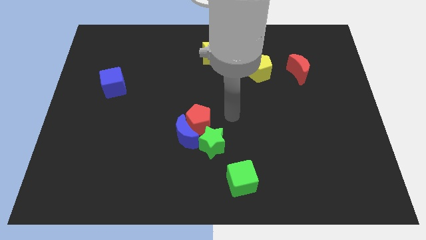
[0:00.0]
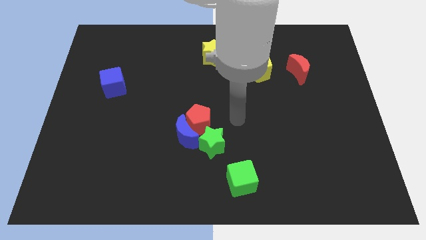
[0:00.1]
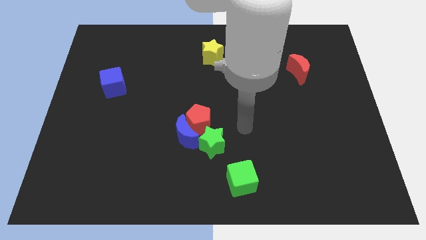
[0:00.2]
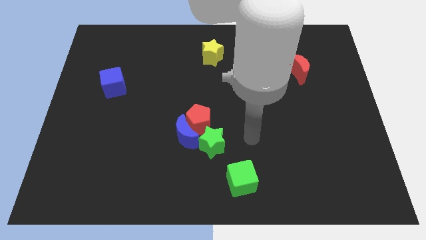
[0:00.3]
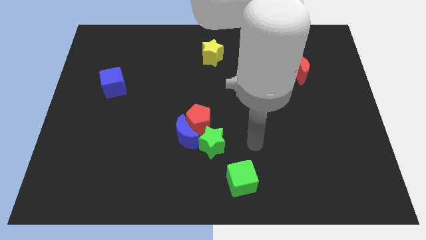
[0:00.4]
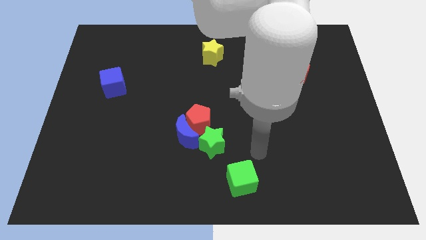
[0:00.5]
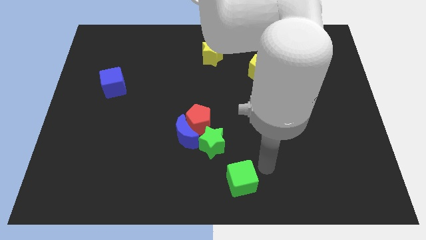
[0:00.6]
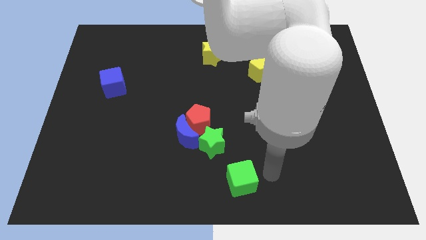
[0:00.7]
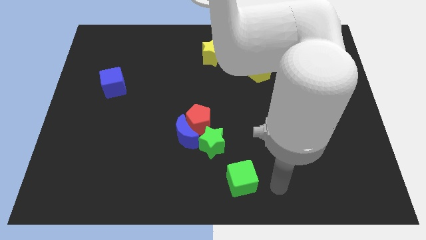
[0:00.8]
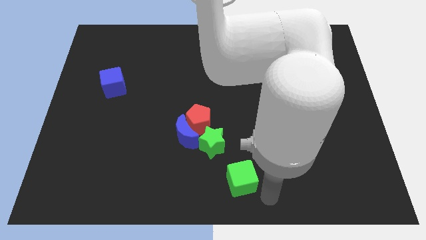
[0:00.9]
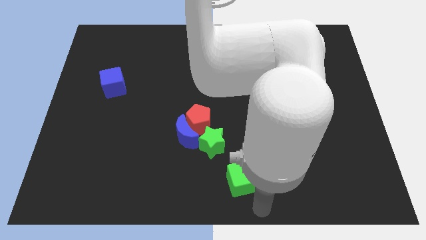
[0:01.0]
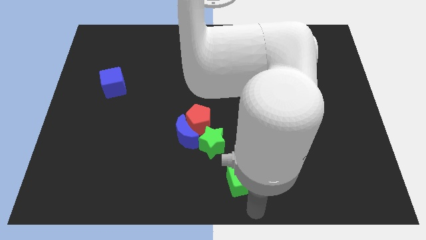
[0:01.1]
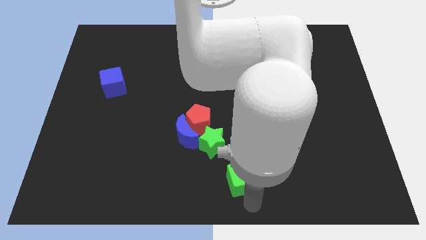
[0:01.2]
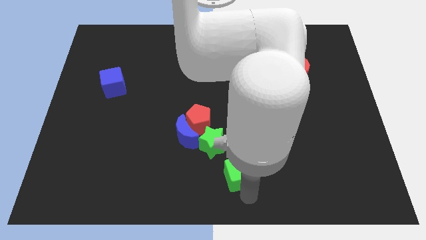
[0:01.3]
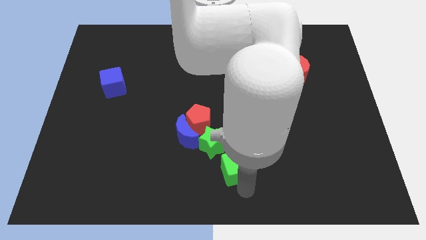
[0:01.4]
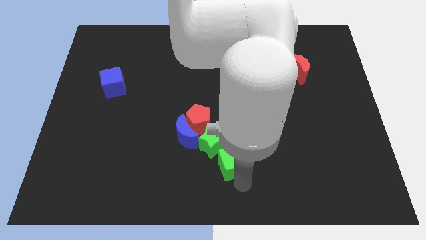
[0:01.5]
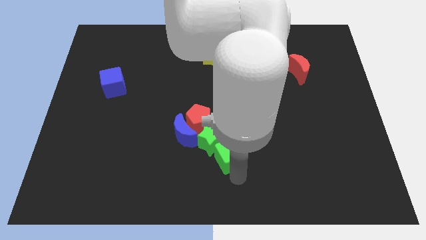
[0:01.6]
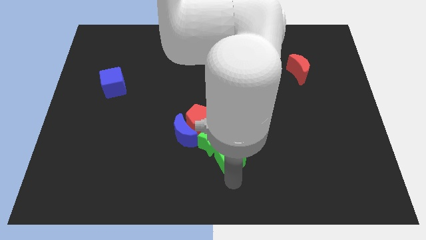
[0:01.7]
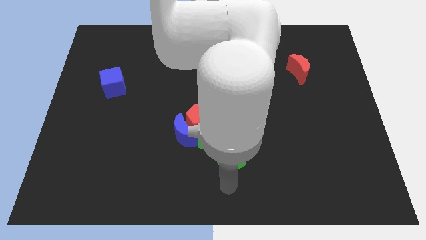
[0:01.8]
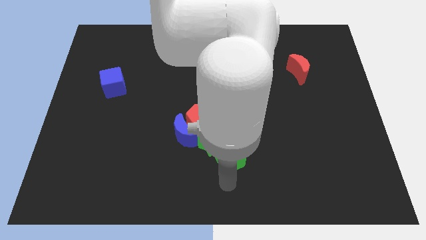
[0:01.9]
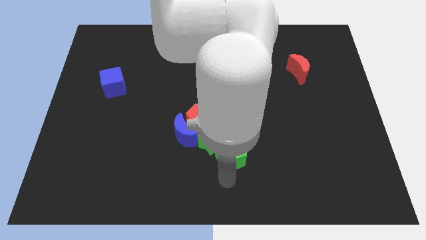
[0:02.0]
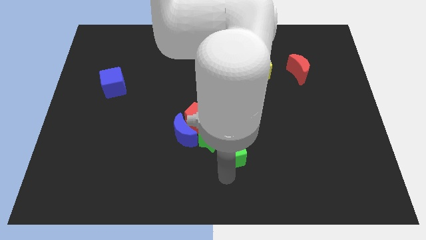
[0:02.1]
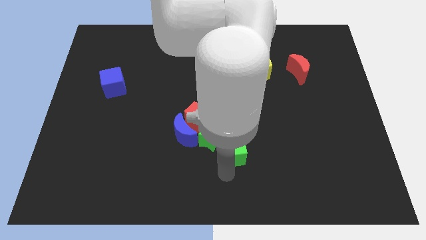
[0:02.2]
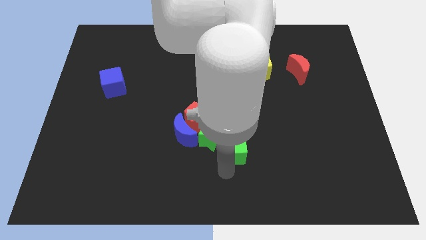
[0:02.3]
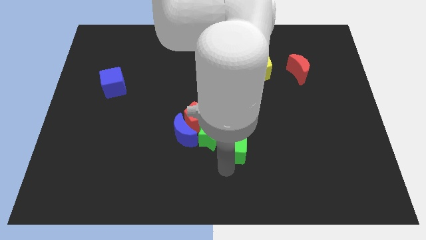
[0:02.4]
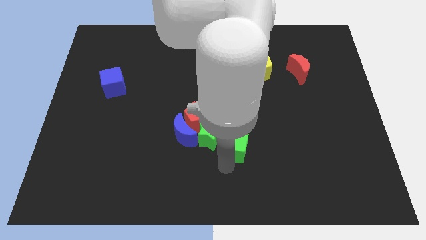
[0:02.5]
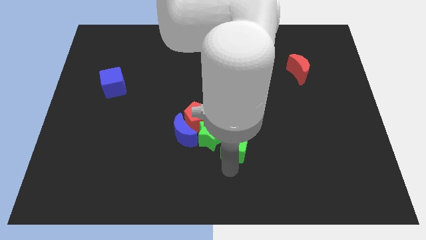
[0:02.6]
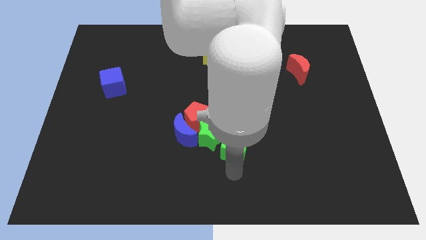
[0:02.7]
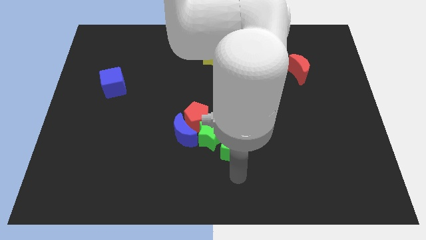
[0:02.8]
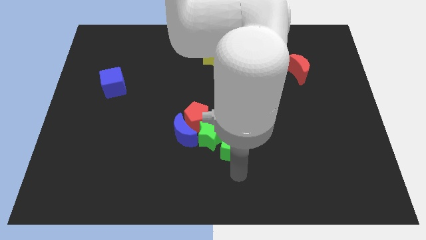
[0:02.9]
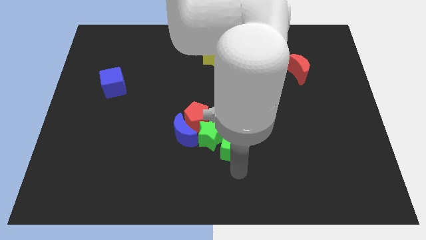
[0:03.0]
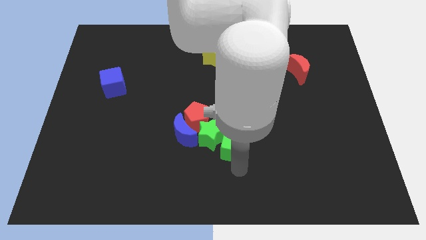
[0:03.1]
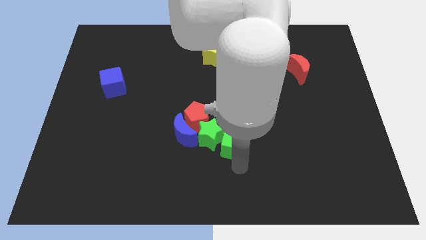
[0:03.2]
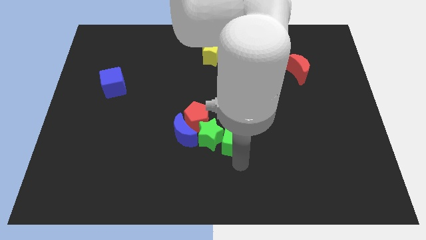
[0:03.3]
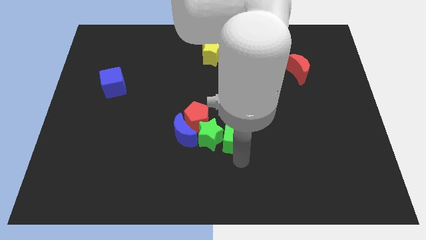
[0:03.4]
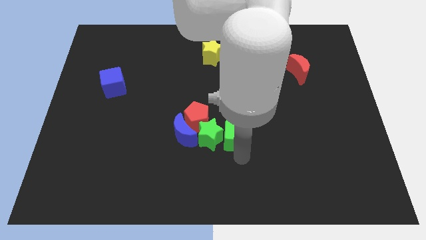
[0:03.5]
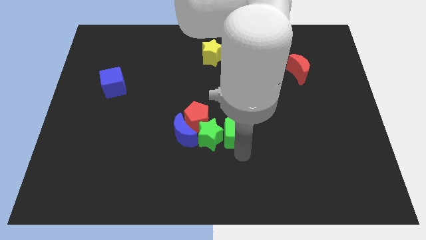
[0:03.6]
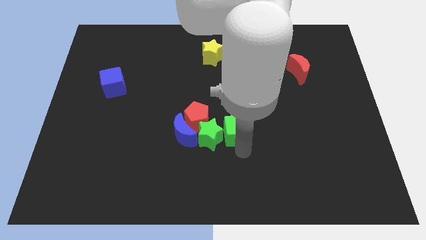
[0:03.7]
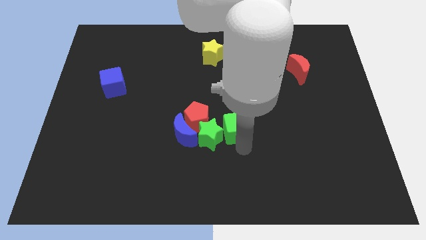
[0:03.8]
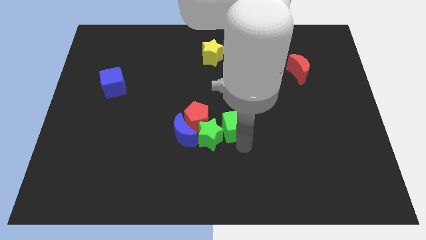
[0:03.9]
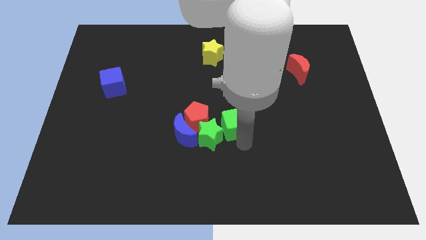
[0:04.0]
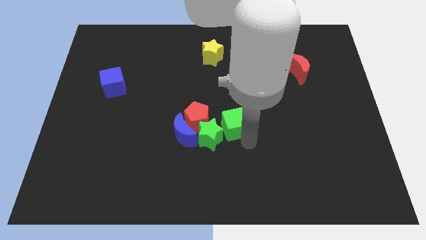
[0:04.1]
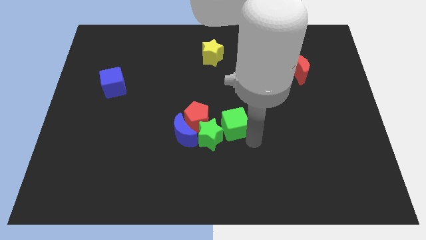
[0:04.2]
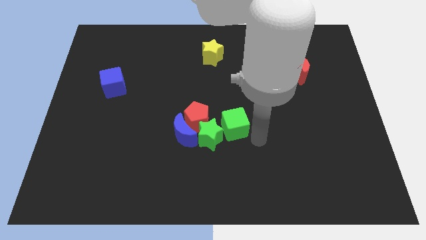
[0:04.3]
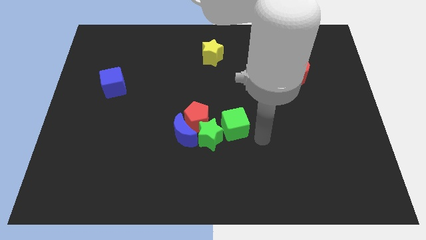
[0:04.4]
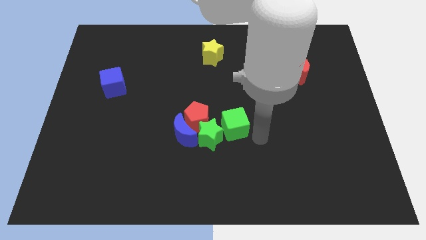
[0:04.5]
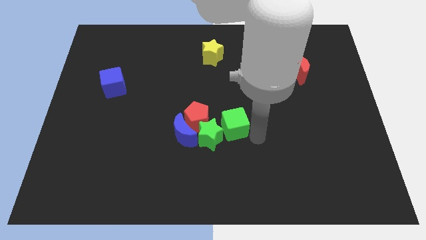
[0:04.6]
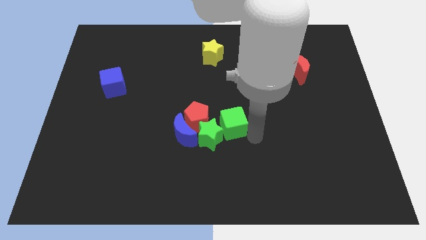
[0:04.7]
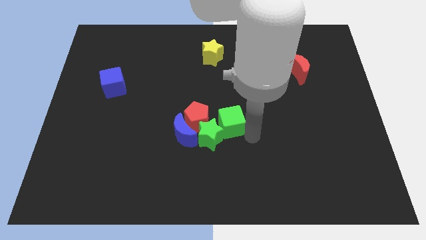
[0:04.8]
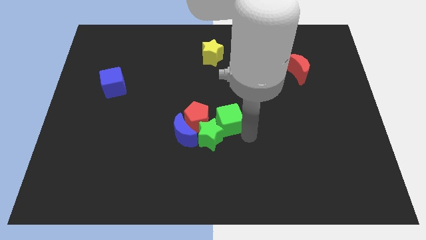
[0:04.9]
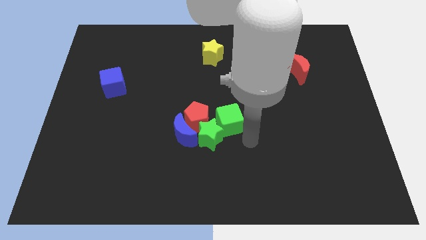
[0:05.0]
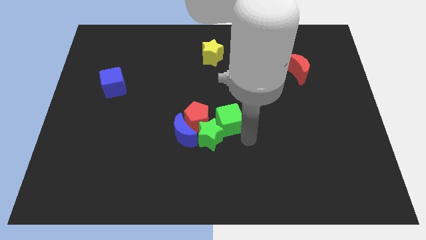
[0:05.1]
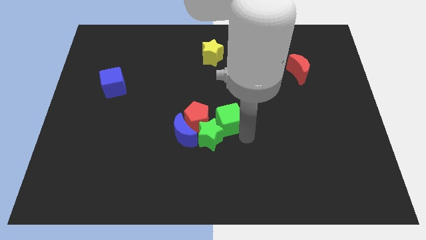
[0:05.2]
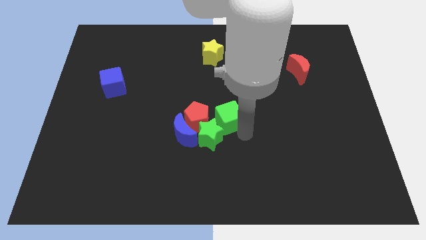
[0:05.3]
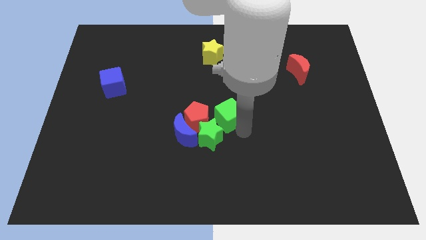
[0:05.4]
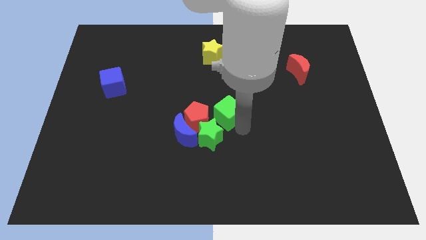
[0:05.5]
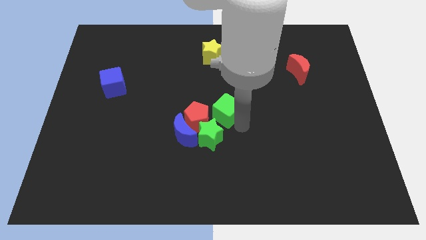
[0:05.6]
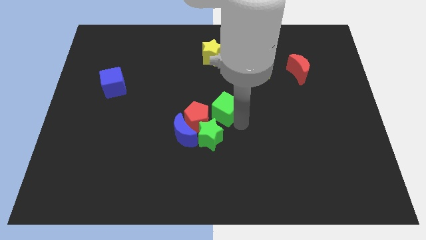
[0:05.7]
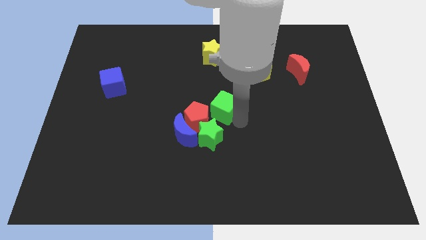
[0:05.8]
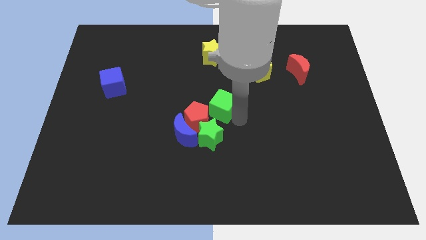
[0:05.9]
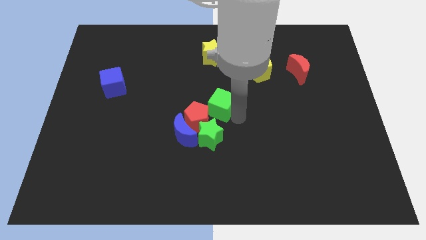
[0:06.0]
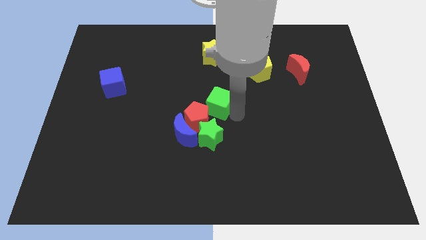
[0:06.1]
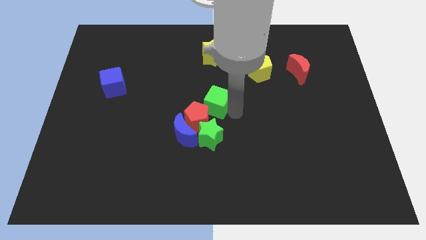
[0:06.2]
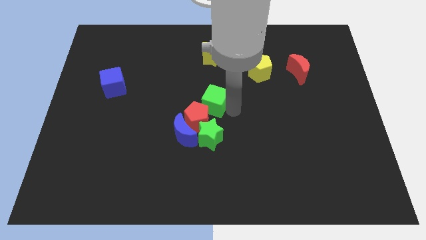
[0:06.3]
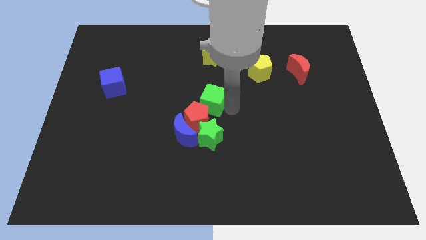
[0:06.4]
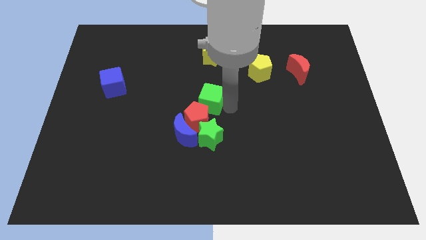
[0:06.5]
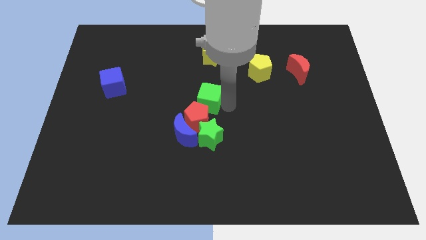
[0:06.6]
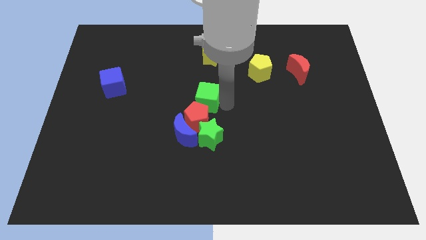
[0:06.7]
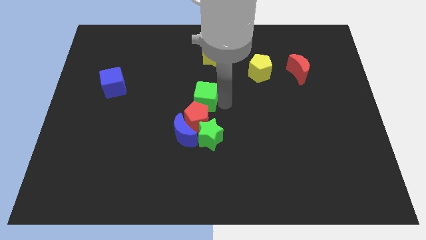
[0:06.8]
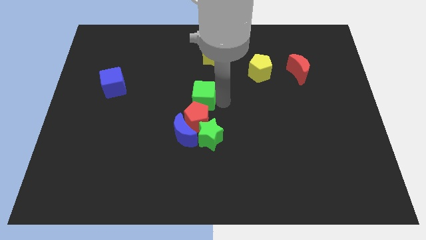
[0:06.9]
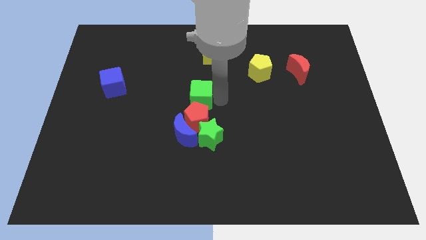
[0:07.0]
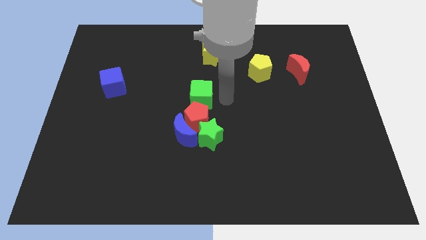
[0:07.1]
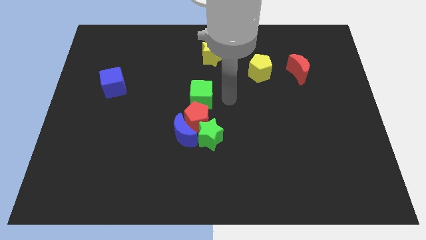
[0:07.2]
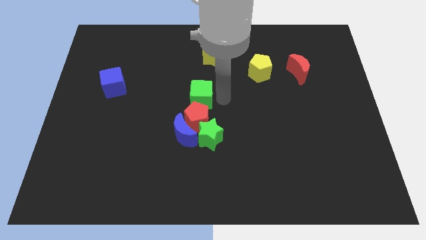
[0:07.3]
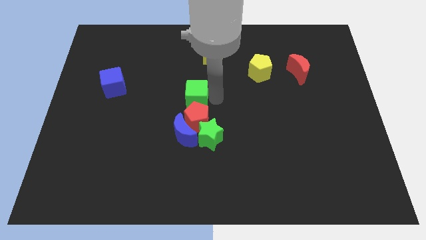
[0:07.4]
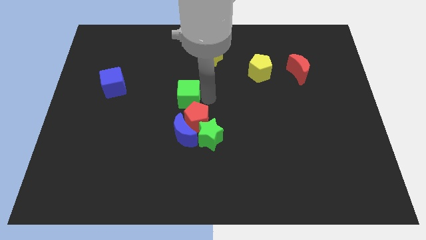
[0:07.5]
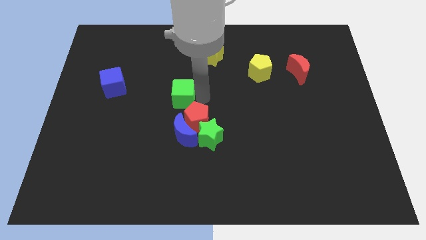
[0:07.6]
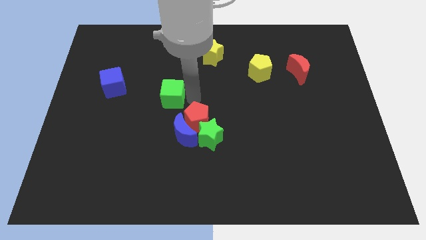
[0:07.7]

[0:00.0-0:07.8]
put the green cube just right of the blue cube
